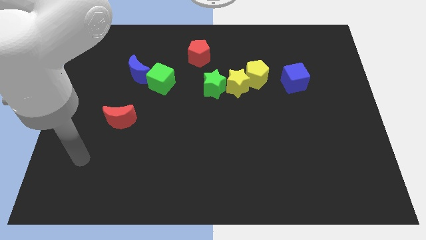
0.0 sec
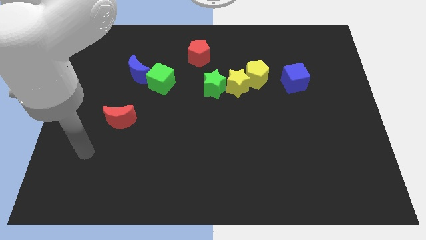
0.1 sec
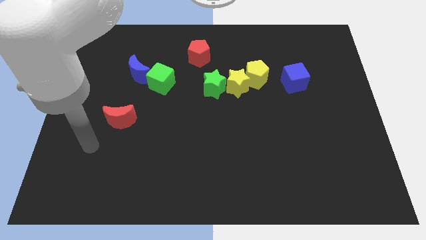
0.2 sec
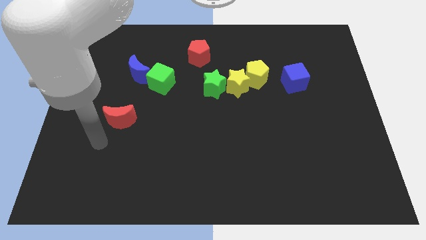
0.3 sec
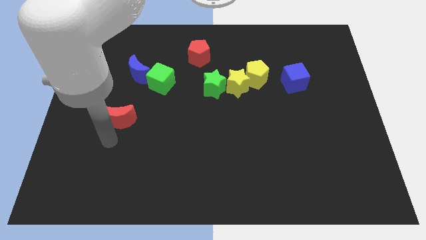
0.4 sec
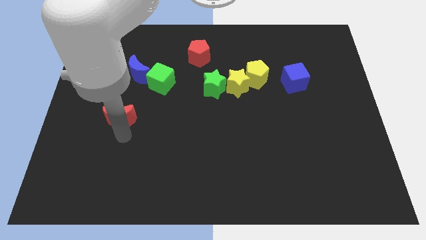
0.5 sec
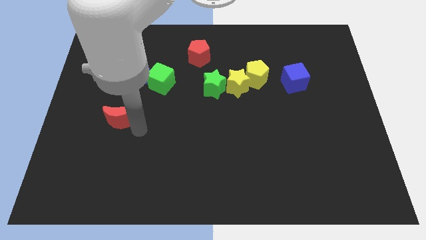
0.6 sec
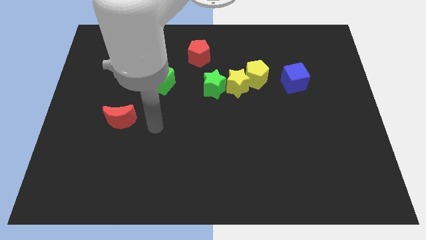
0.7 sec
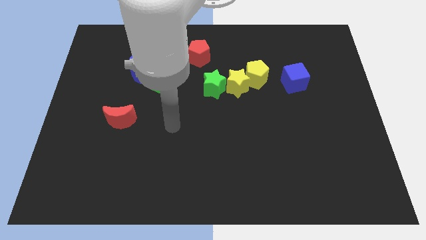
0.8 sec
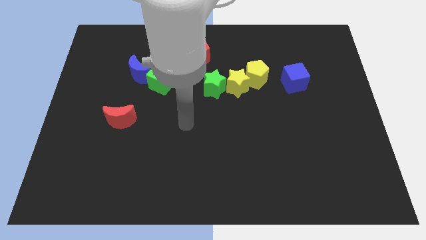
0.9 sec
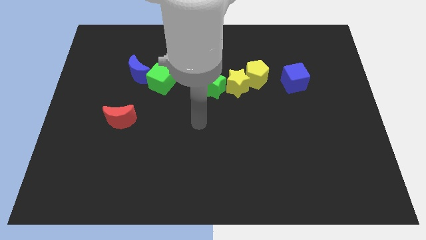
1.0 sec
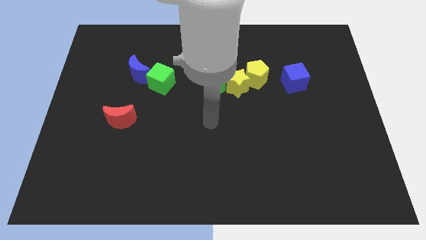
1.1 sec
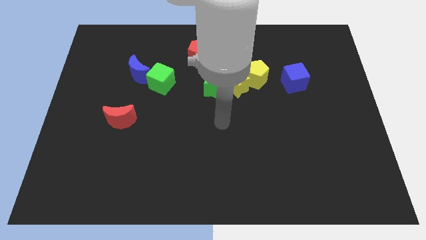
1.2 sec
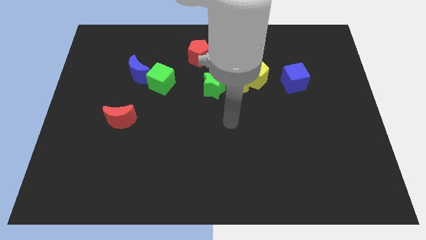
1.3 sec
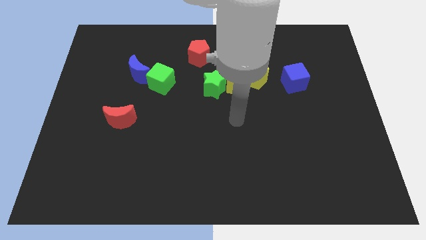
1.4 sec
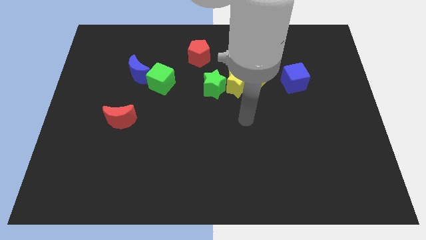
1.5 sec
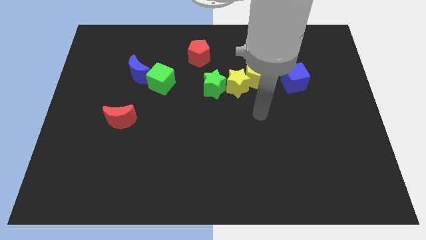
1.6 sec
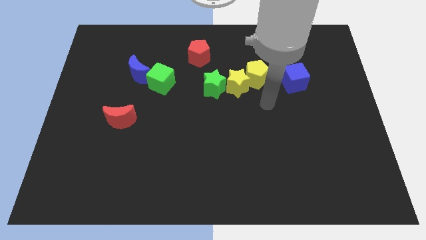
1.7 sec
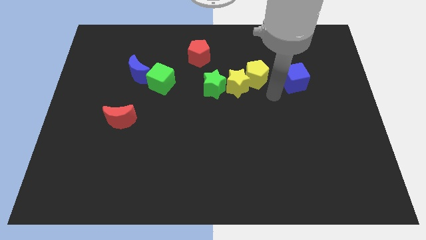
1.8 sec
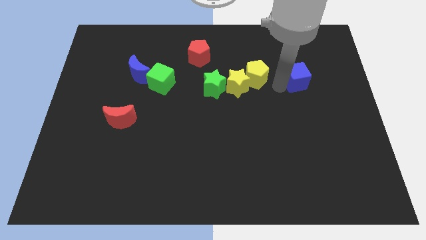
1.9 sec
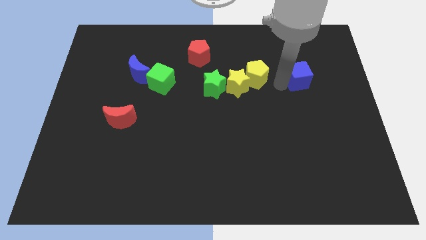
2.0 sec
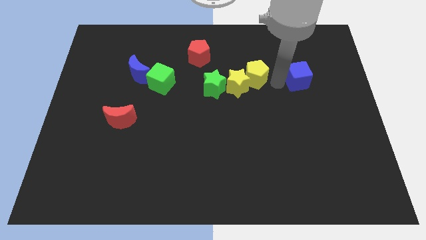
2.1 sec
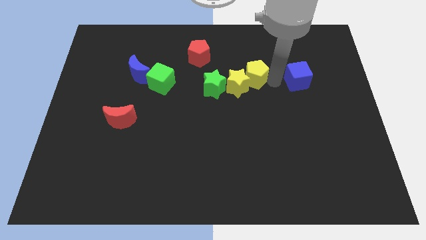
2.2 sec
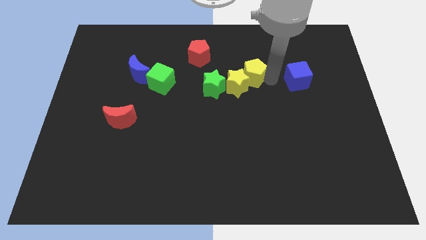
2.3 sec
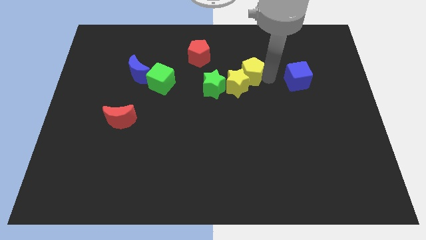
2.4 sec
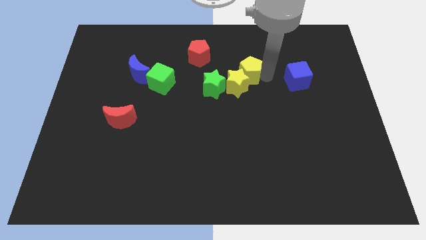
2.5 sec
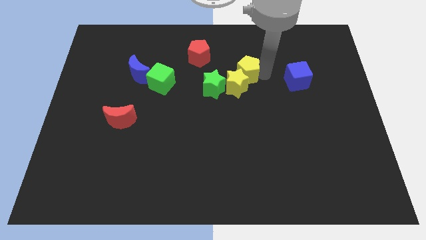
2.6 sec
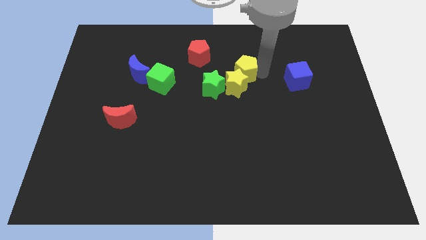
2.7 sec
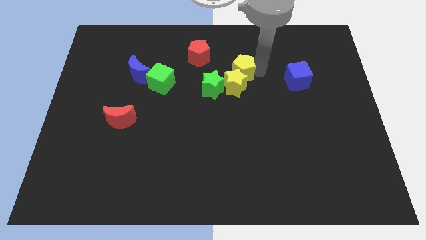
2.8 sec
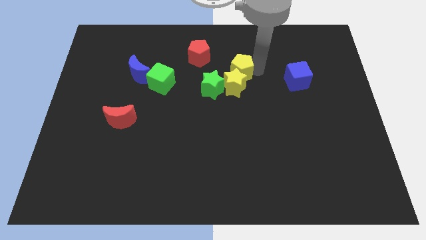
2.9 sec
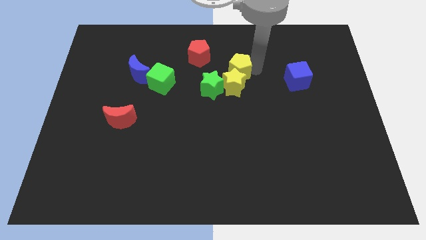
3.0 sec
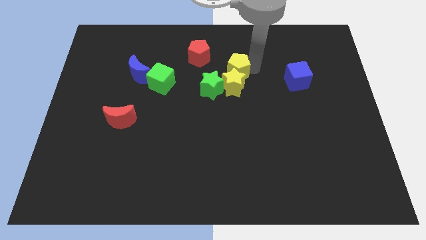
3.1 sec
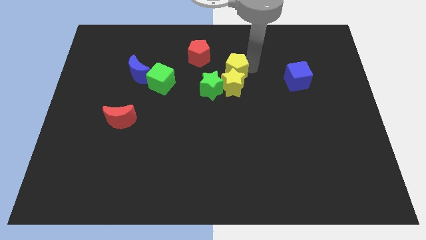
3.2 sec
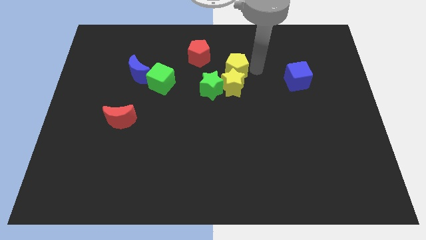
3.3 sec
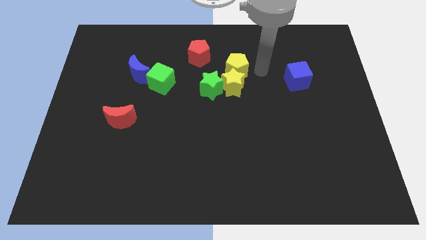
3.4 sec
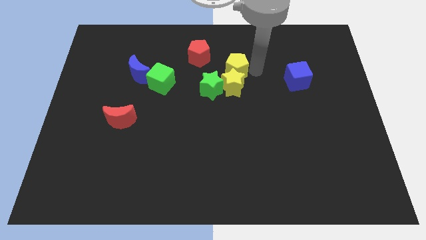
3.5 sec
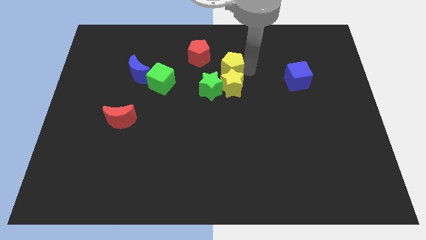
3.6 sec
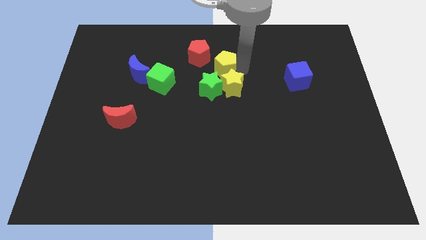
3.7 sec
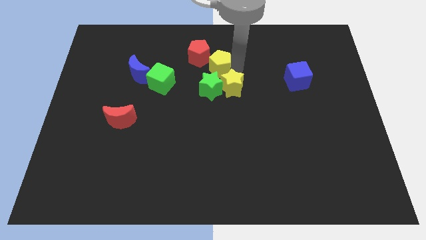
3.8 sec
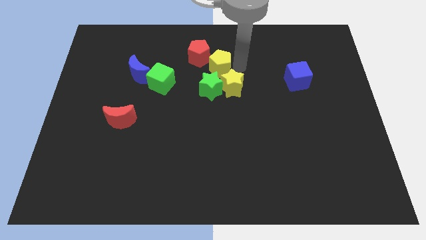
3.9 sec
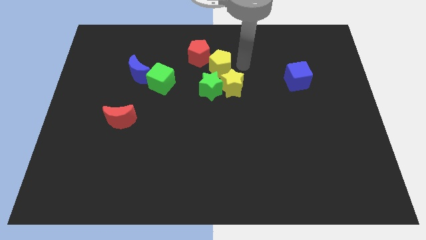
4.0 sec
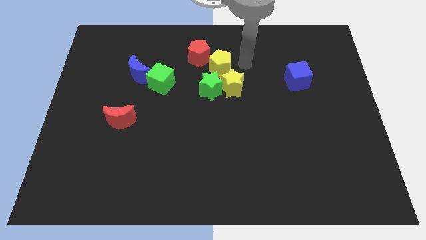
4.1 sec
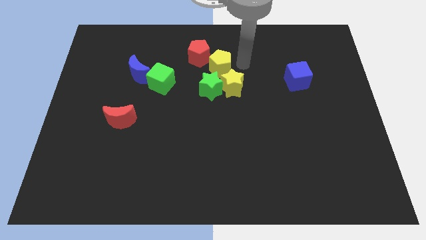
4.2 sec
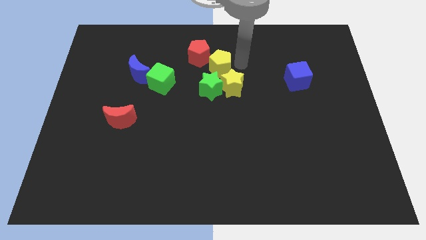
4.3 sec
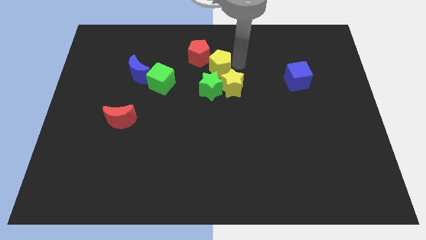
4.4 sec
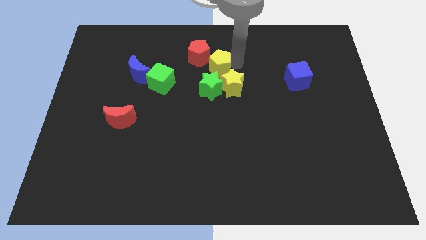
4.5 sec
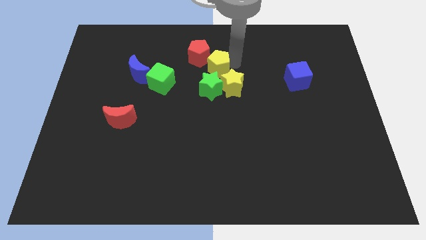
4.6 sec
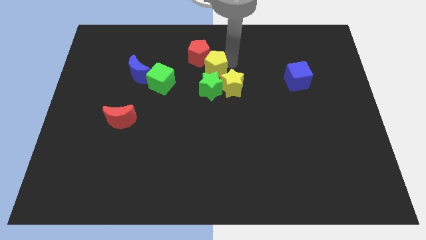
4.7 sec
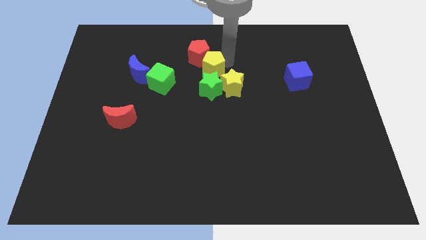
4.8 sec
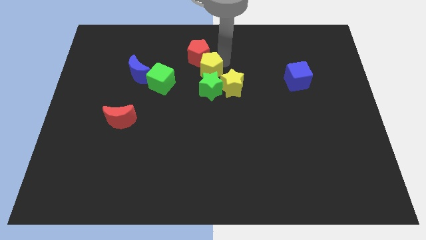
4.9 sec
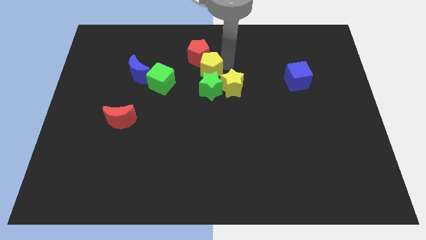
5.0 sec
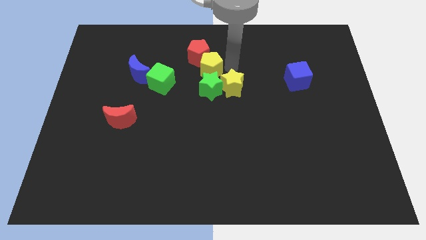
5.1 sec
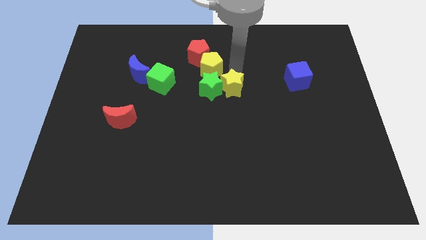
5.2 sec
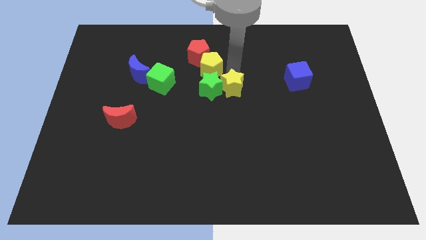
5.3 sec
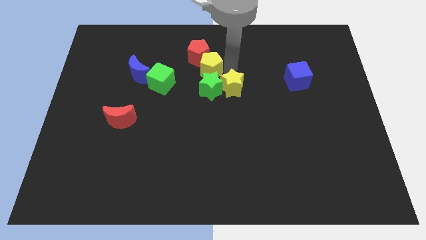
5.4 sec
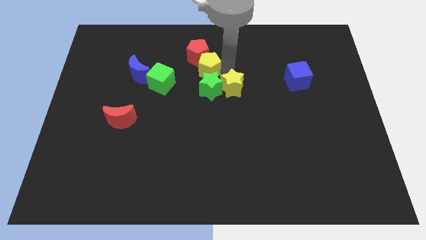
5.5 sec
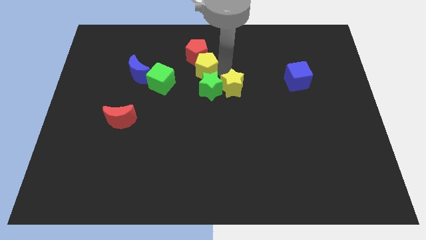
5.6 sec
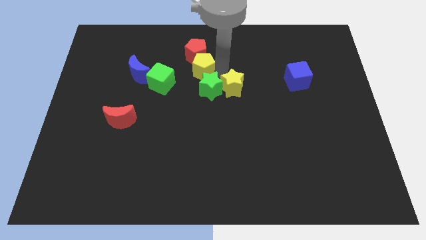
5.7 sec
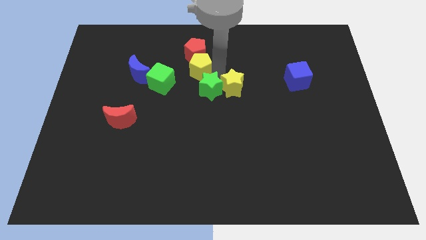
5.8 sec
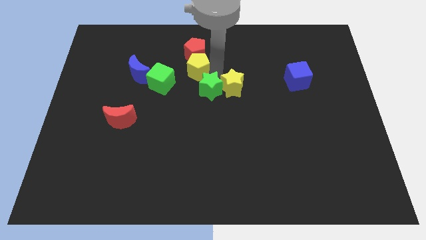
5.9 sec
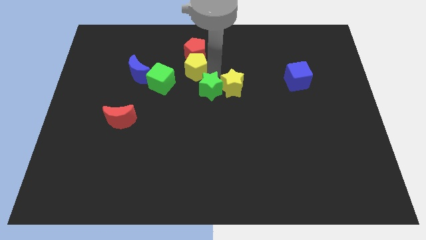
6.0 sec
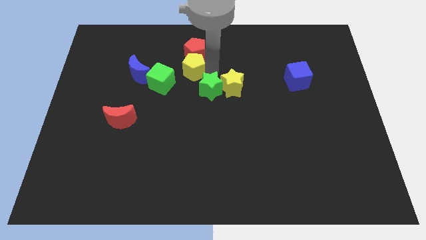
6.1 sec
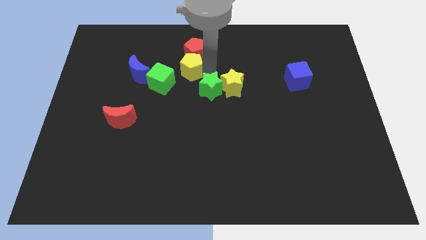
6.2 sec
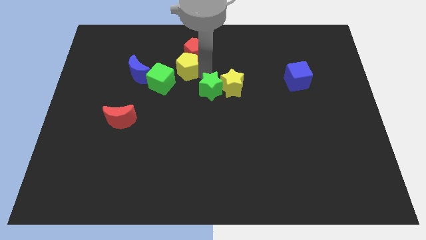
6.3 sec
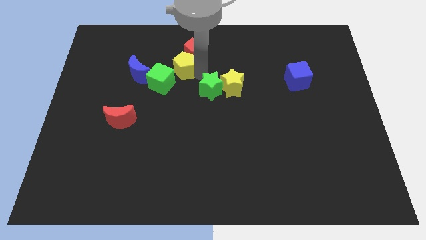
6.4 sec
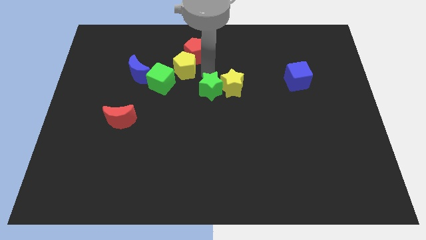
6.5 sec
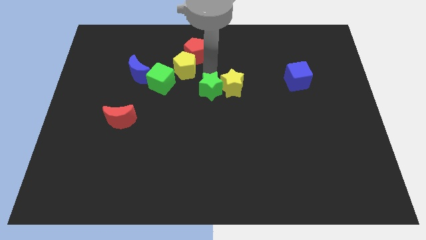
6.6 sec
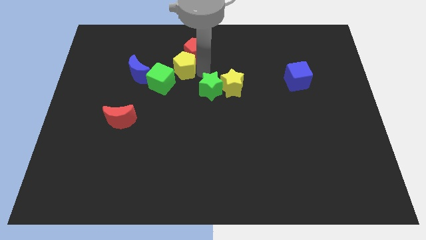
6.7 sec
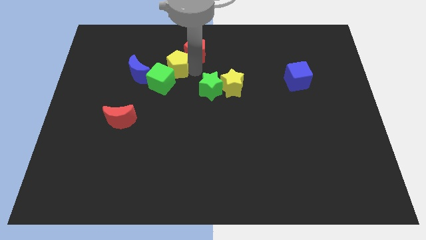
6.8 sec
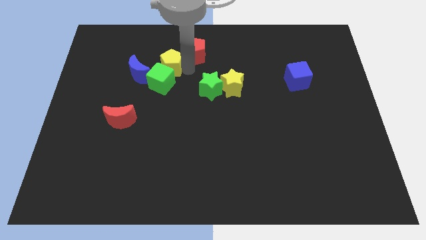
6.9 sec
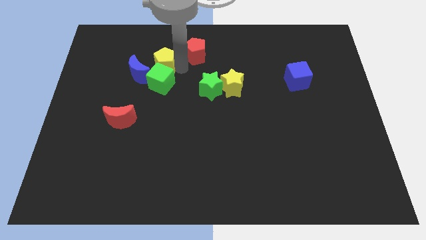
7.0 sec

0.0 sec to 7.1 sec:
push the yellow pentagon to the top left of the green cube

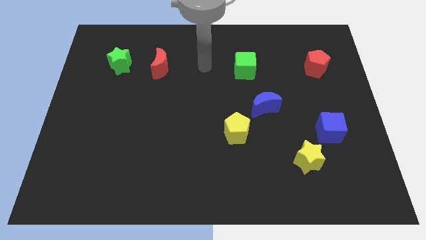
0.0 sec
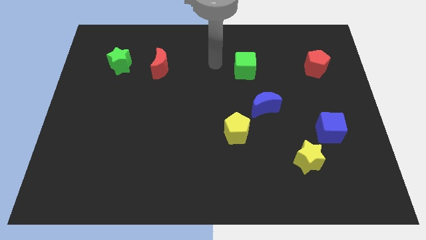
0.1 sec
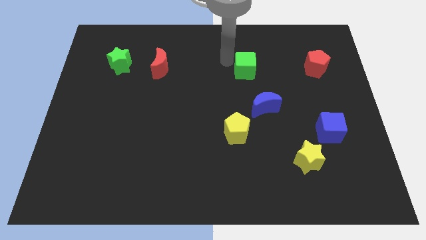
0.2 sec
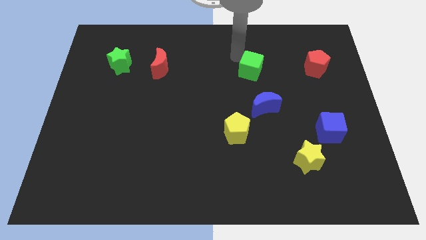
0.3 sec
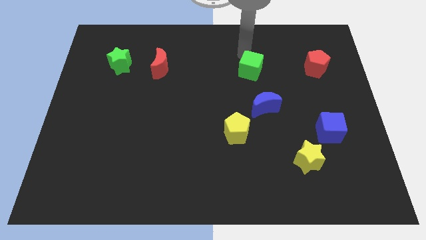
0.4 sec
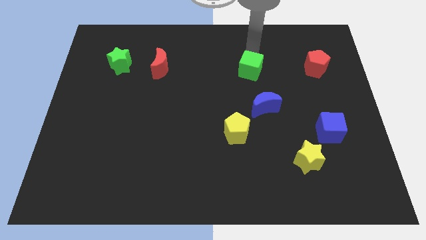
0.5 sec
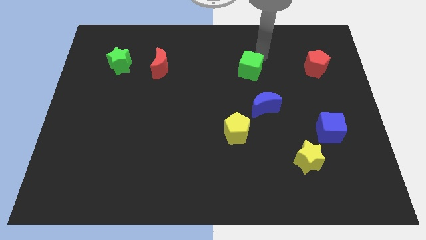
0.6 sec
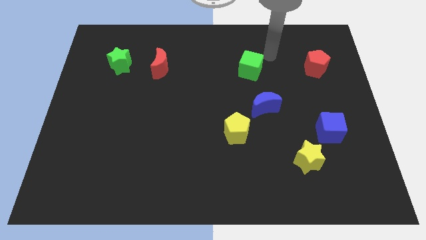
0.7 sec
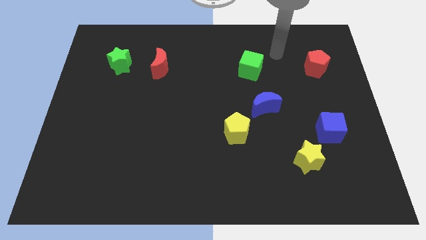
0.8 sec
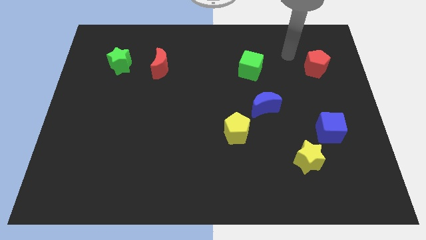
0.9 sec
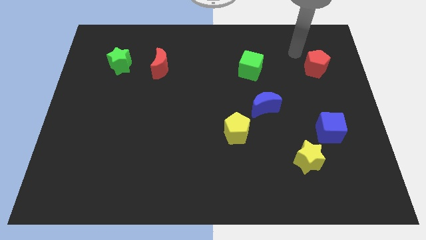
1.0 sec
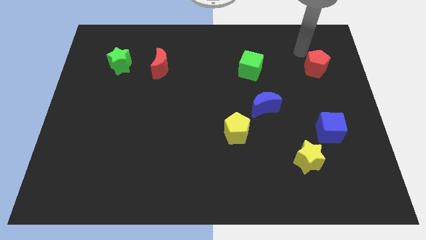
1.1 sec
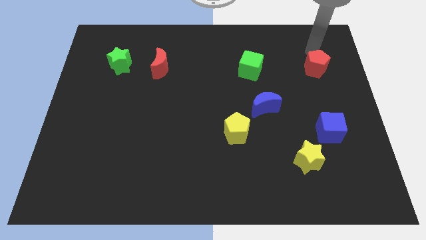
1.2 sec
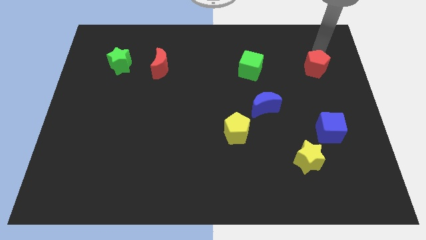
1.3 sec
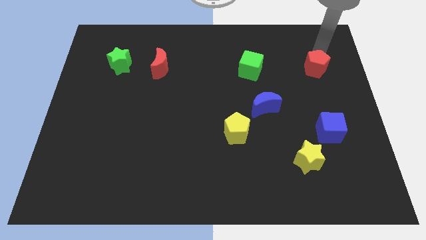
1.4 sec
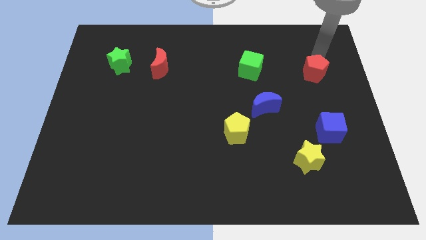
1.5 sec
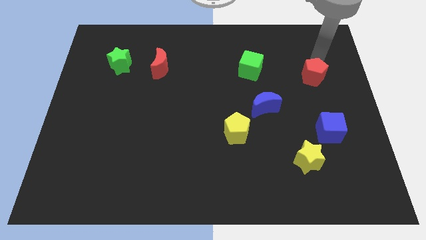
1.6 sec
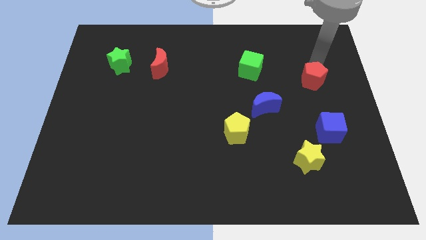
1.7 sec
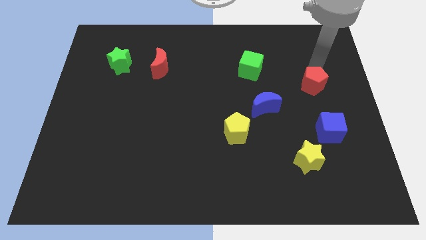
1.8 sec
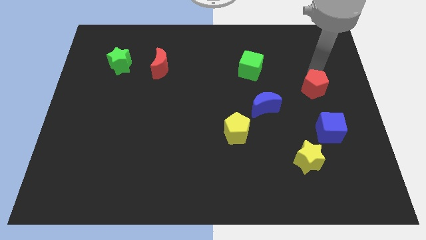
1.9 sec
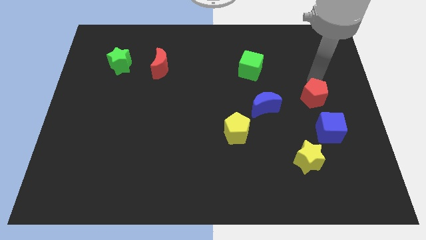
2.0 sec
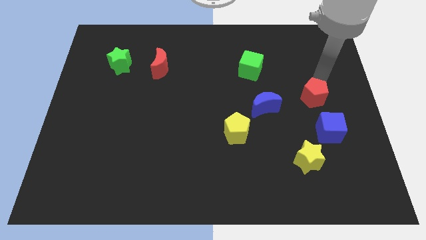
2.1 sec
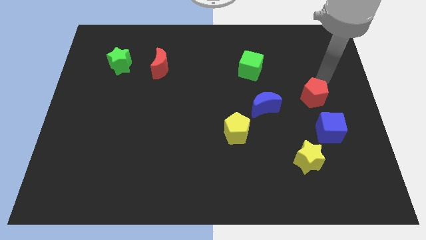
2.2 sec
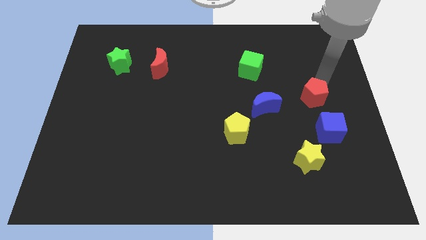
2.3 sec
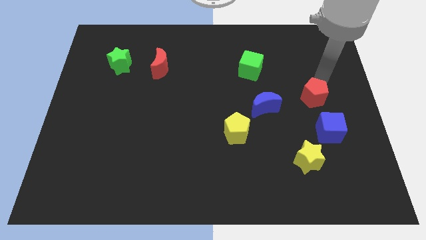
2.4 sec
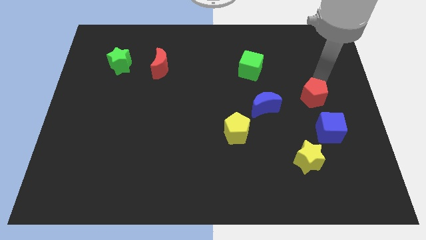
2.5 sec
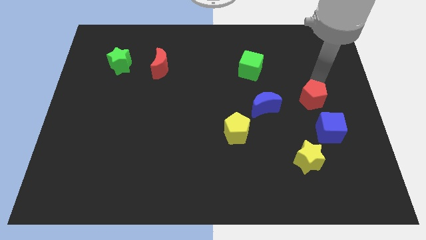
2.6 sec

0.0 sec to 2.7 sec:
put the red pentagon to the top left of the blue cube
